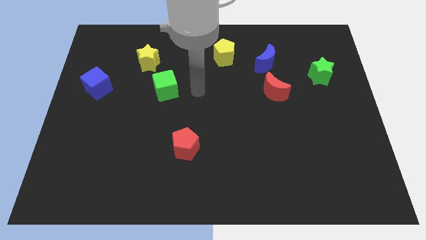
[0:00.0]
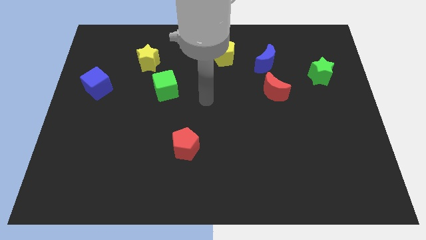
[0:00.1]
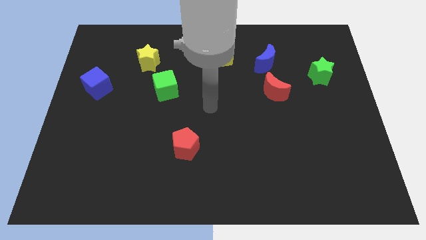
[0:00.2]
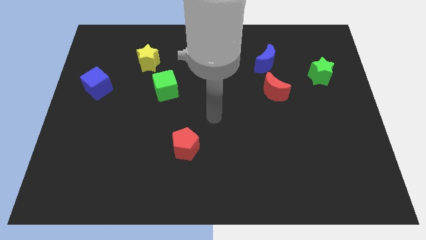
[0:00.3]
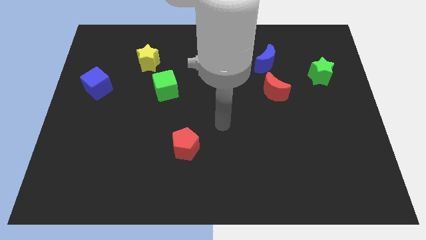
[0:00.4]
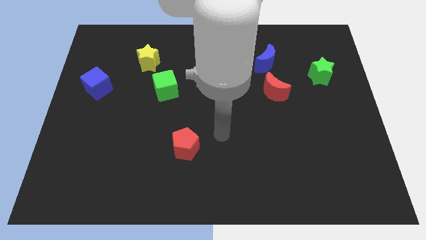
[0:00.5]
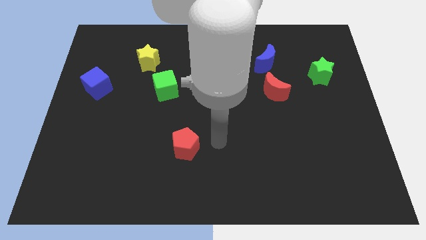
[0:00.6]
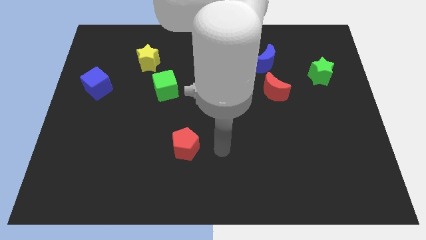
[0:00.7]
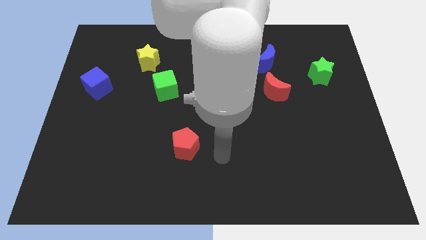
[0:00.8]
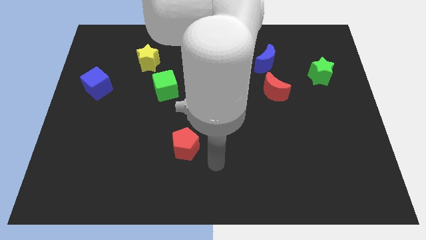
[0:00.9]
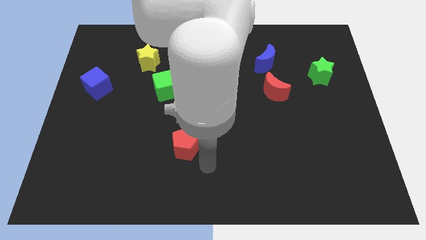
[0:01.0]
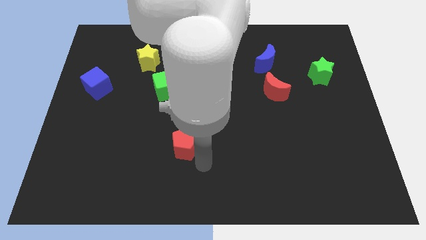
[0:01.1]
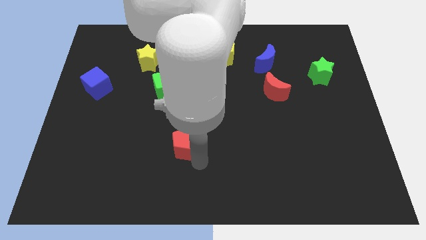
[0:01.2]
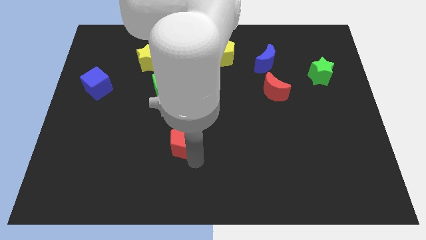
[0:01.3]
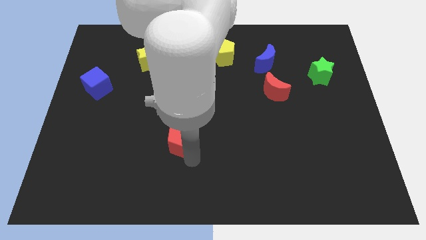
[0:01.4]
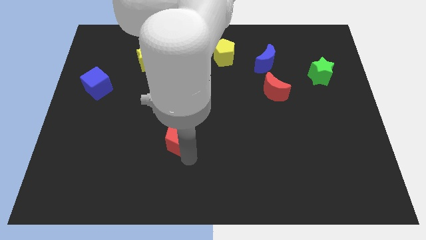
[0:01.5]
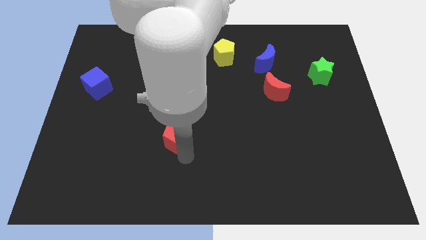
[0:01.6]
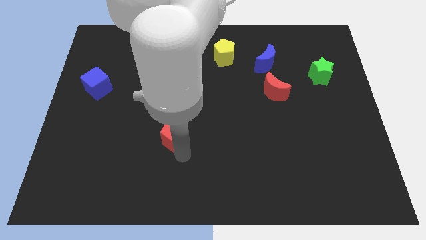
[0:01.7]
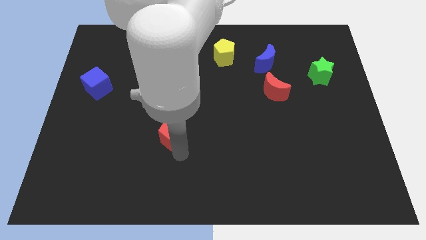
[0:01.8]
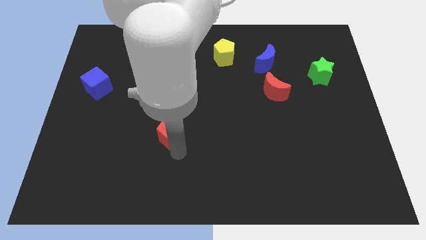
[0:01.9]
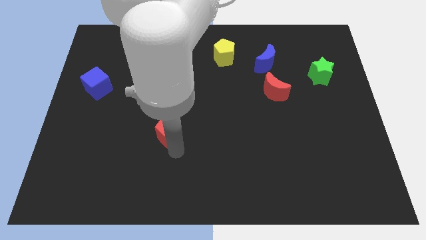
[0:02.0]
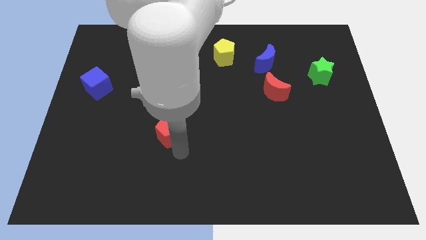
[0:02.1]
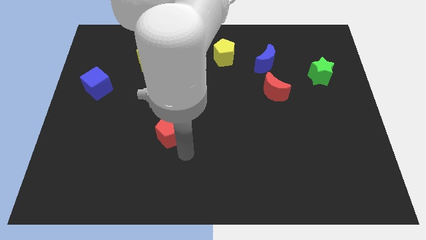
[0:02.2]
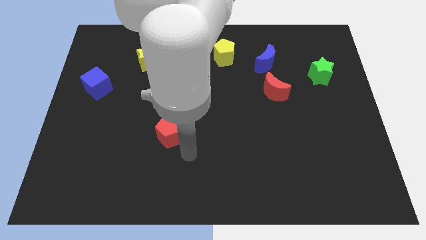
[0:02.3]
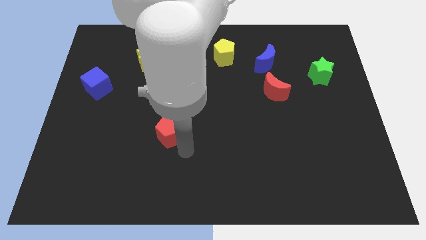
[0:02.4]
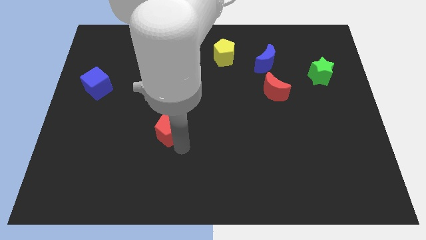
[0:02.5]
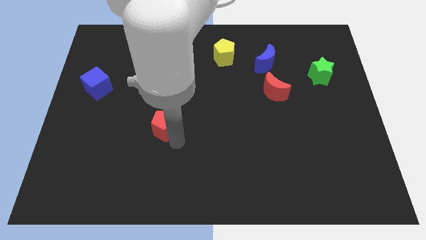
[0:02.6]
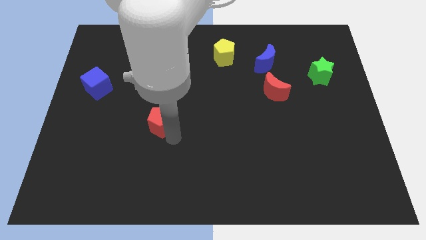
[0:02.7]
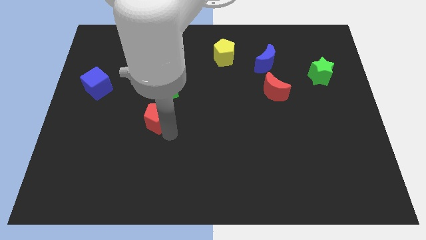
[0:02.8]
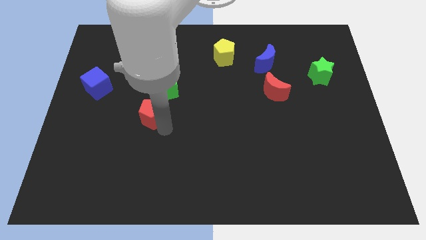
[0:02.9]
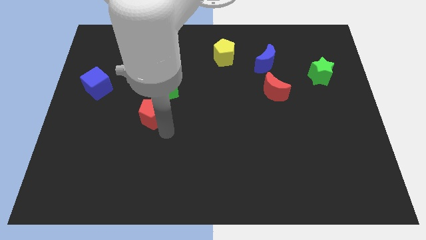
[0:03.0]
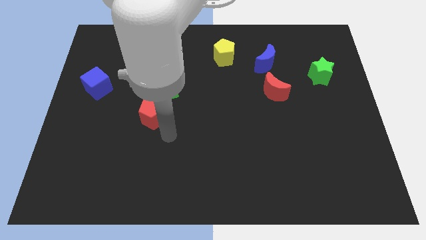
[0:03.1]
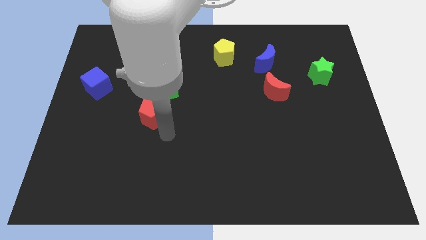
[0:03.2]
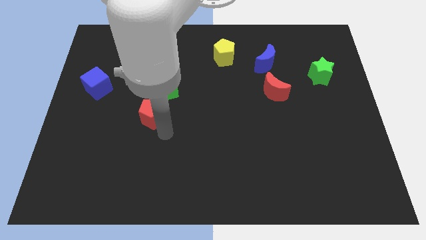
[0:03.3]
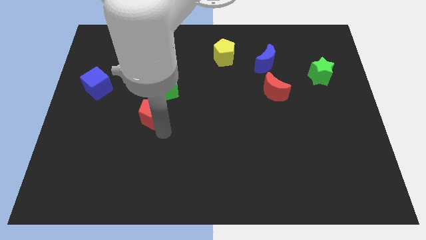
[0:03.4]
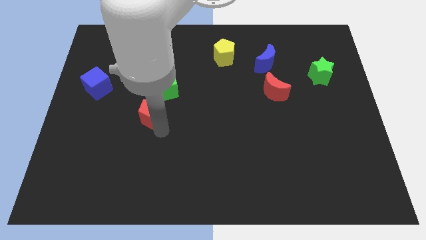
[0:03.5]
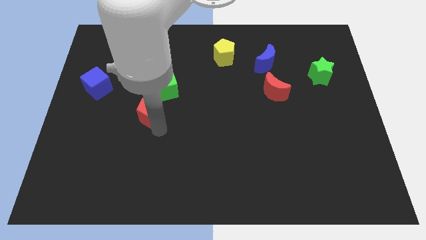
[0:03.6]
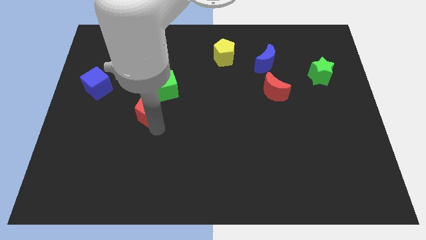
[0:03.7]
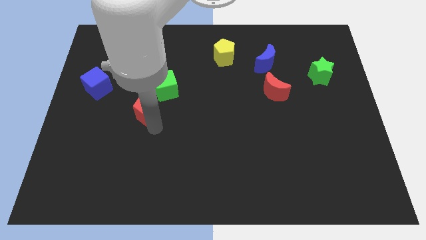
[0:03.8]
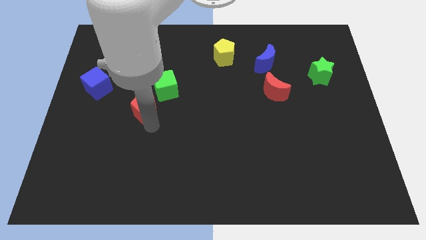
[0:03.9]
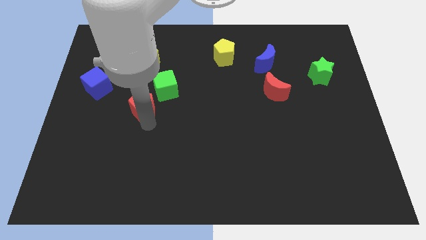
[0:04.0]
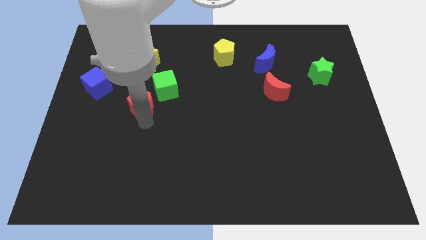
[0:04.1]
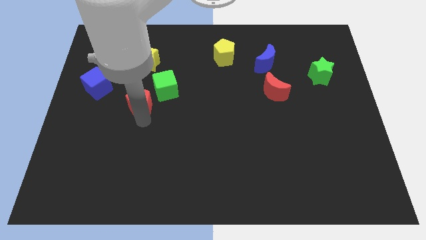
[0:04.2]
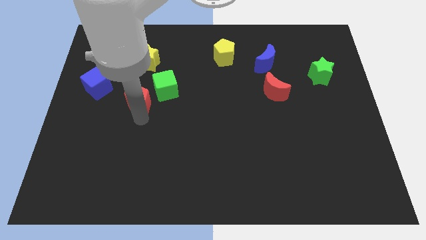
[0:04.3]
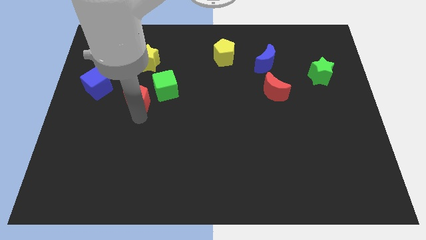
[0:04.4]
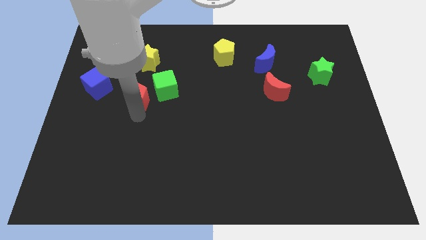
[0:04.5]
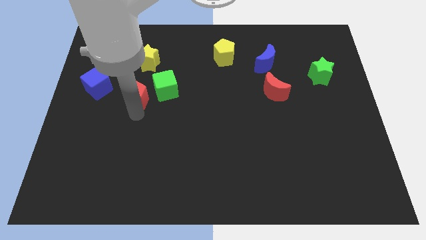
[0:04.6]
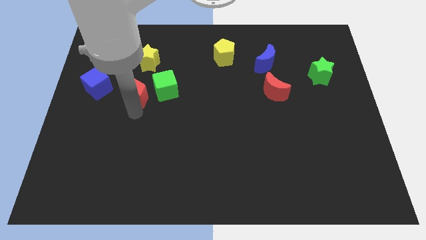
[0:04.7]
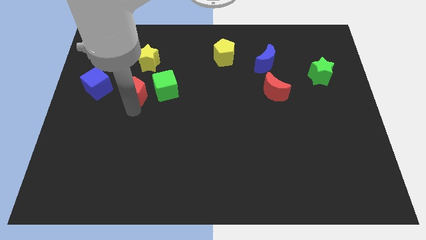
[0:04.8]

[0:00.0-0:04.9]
push the red pentagon diagonally upwards and to the left

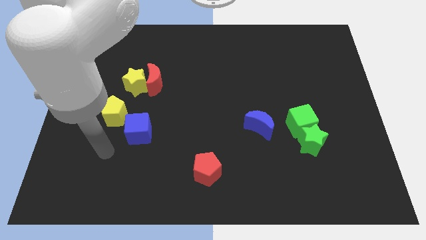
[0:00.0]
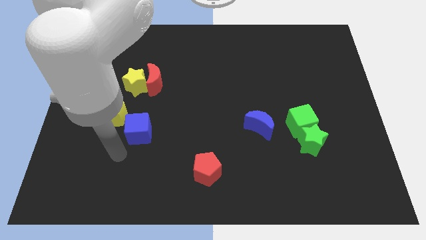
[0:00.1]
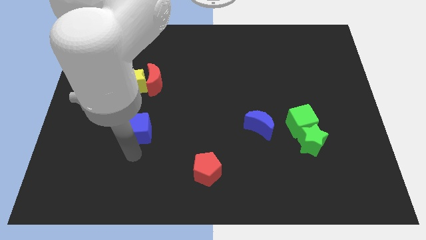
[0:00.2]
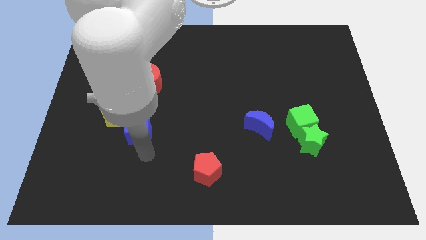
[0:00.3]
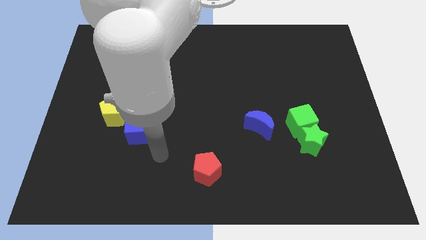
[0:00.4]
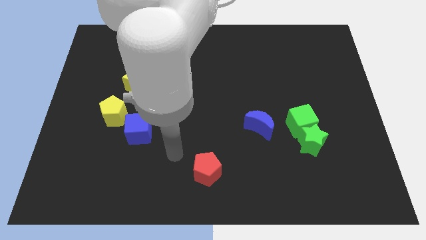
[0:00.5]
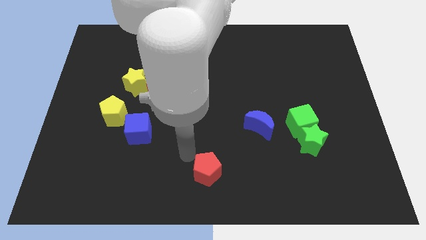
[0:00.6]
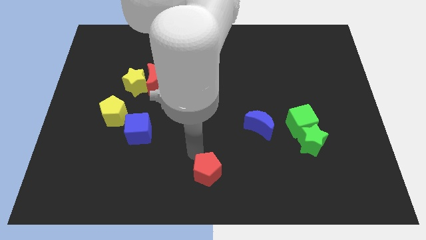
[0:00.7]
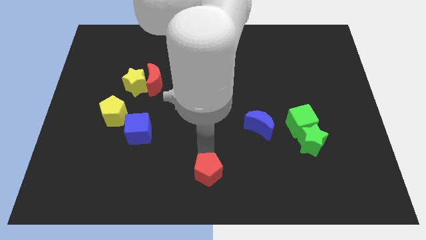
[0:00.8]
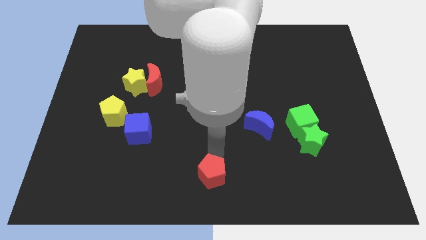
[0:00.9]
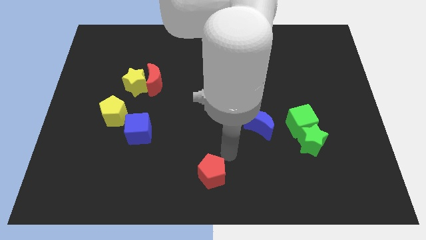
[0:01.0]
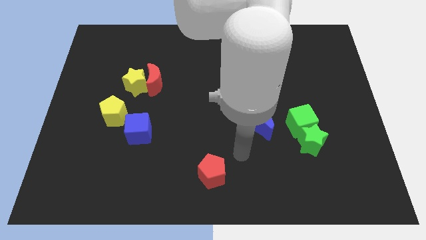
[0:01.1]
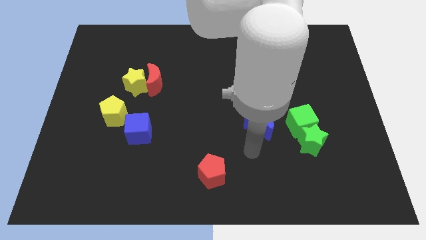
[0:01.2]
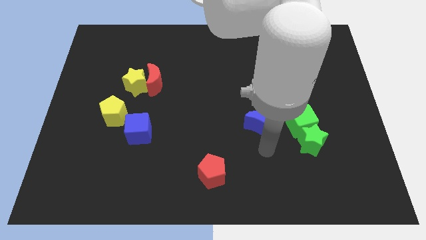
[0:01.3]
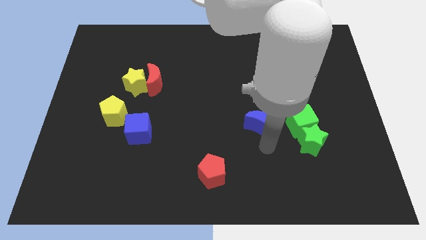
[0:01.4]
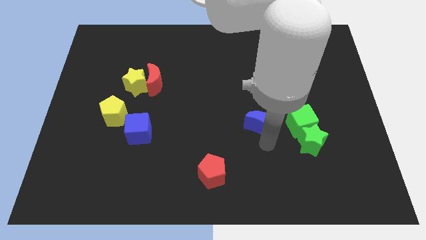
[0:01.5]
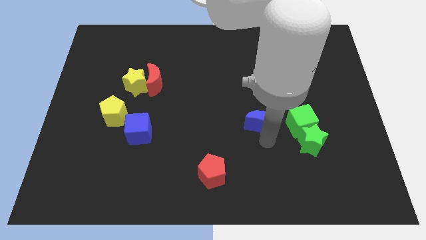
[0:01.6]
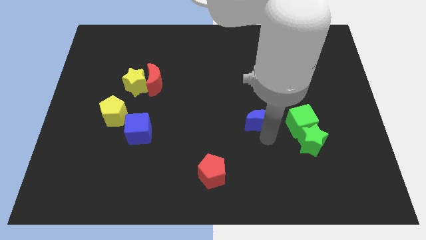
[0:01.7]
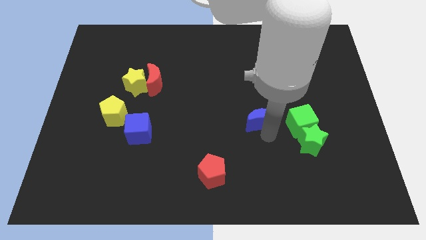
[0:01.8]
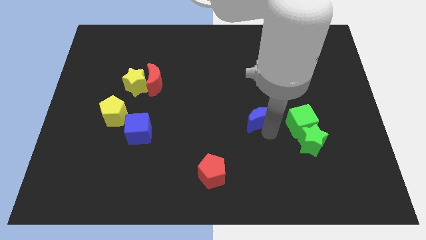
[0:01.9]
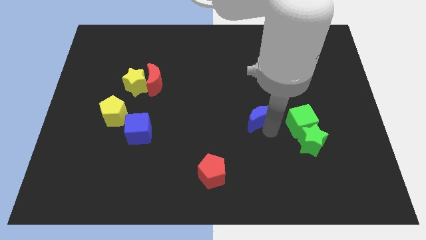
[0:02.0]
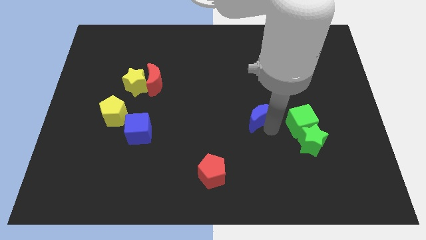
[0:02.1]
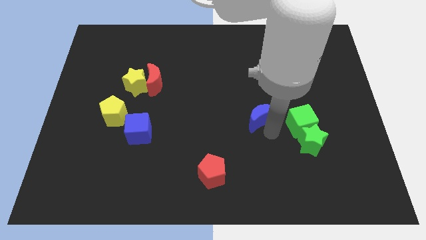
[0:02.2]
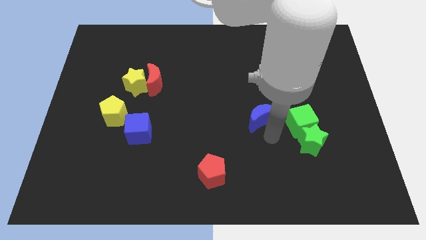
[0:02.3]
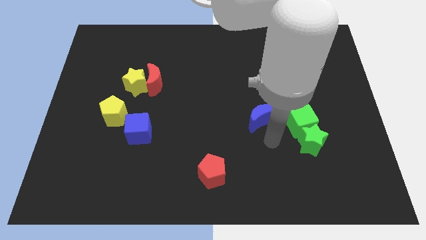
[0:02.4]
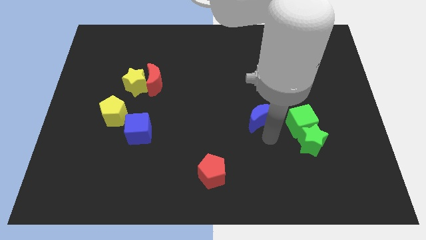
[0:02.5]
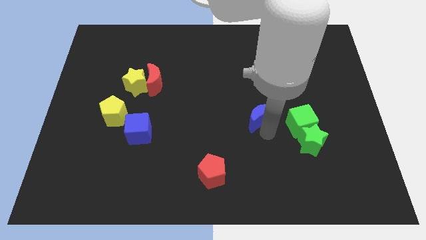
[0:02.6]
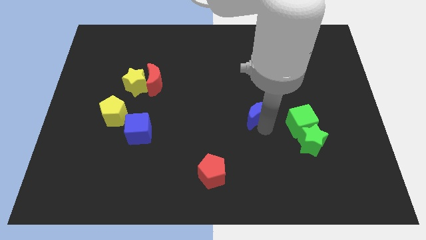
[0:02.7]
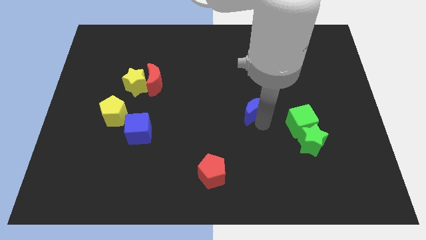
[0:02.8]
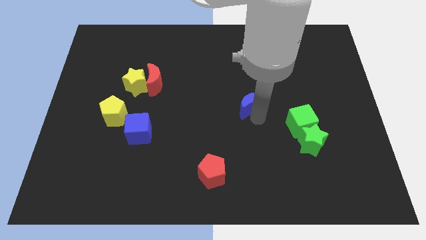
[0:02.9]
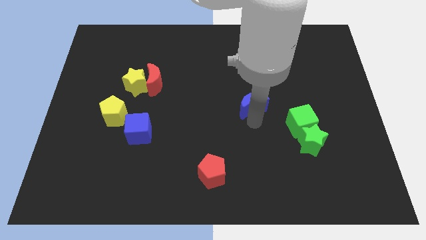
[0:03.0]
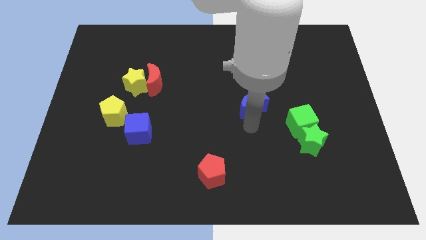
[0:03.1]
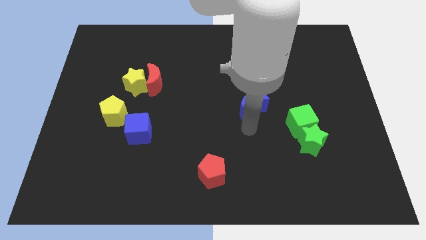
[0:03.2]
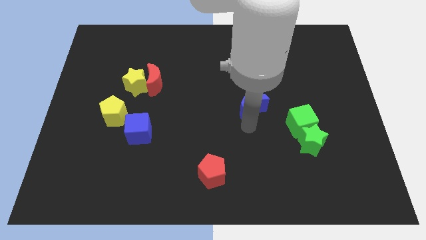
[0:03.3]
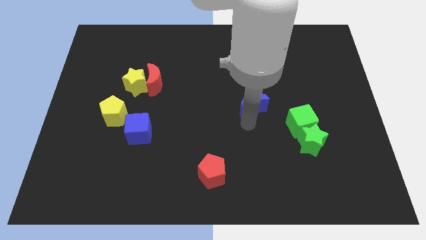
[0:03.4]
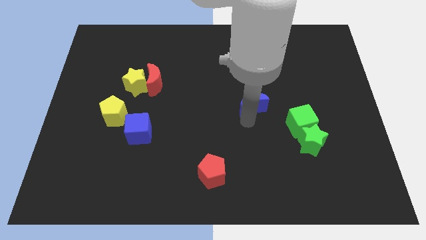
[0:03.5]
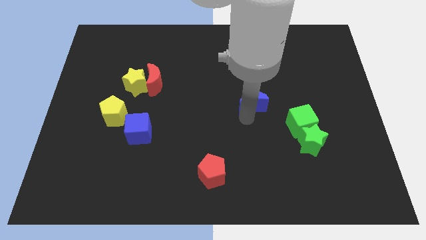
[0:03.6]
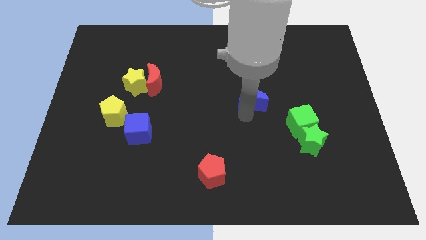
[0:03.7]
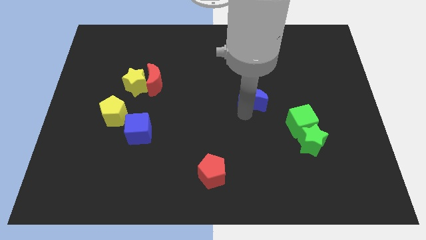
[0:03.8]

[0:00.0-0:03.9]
push the blue moon up a little bit
